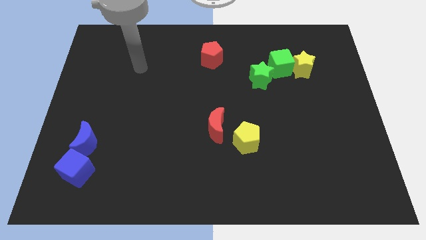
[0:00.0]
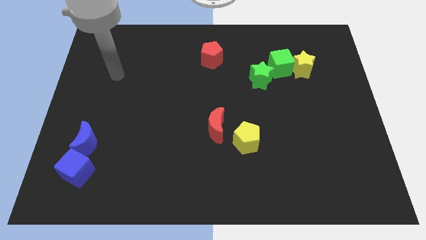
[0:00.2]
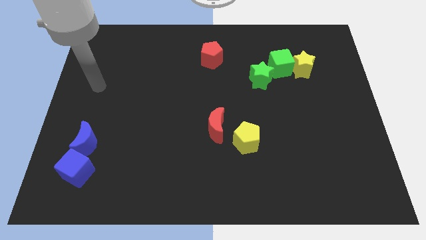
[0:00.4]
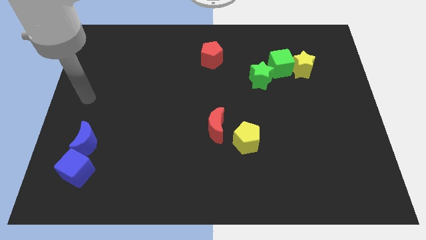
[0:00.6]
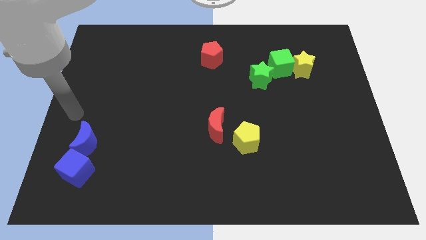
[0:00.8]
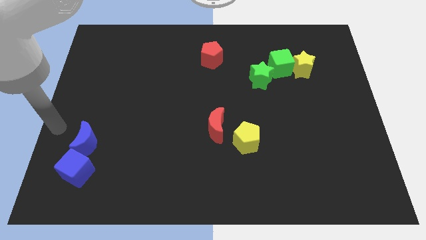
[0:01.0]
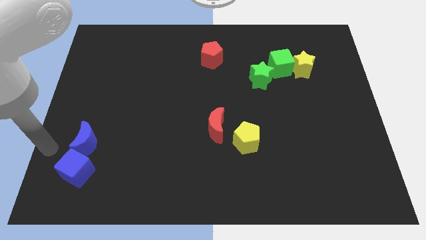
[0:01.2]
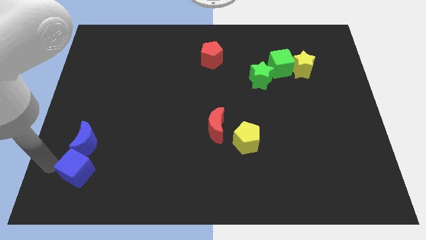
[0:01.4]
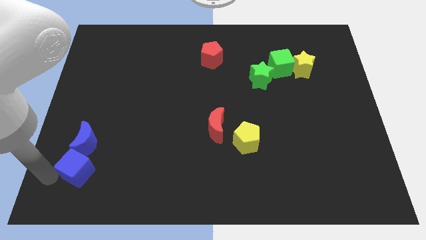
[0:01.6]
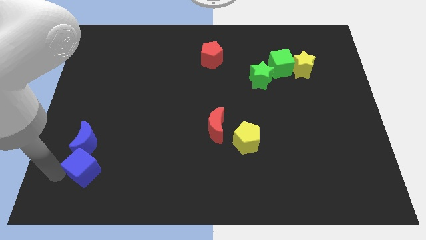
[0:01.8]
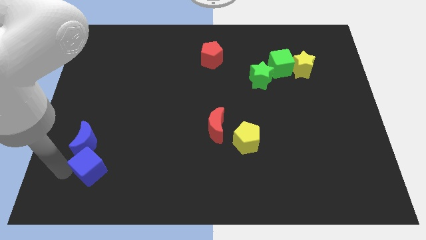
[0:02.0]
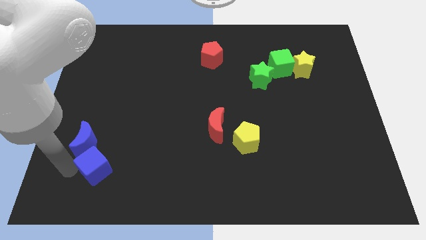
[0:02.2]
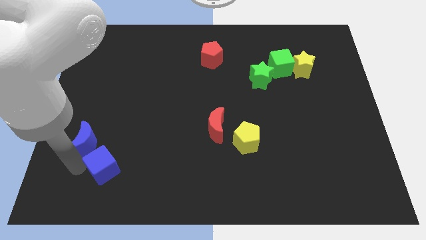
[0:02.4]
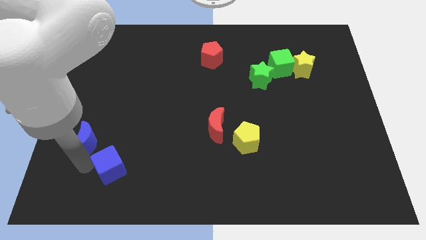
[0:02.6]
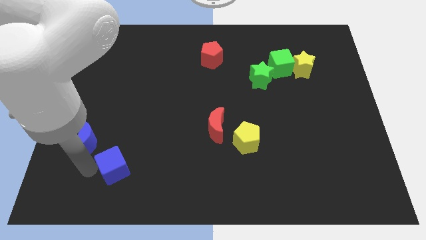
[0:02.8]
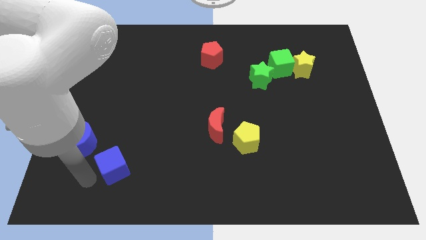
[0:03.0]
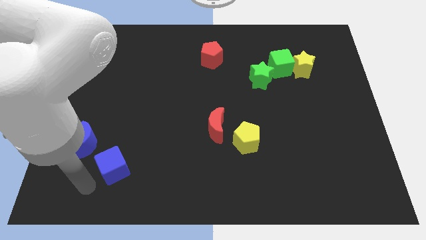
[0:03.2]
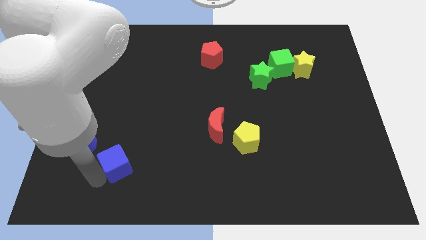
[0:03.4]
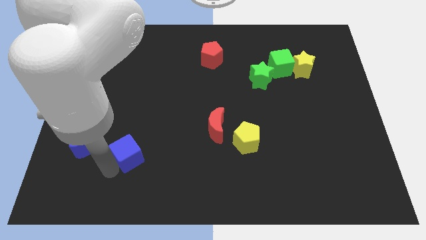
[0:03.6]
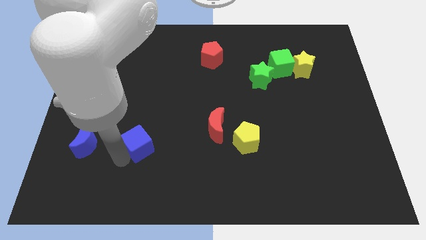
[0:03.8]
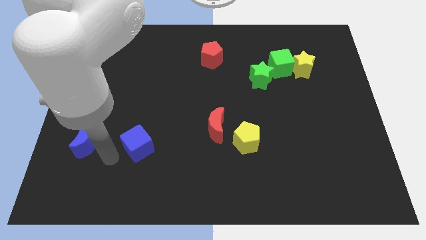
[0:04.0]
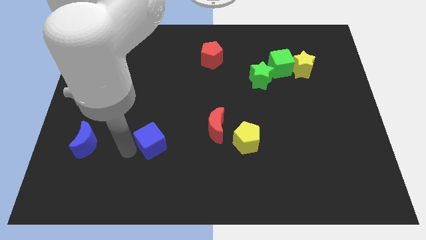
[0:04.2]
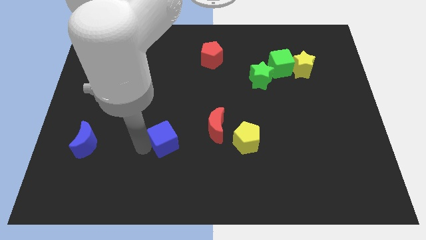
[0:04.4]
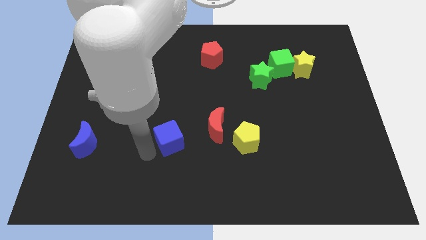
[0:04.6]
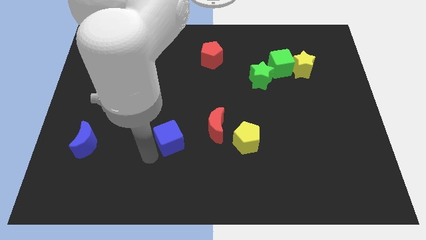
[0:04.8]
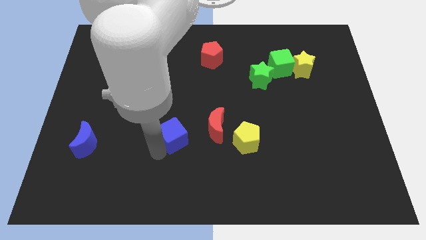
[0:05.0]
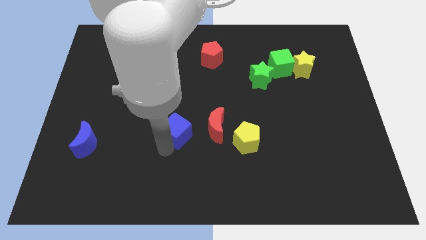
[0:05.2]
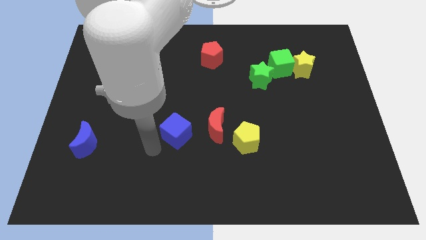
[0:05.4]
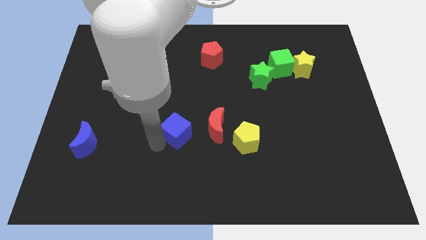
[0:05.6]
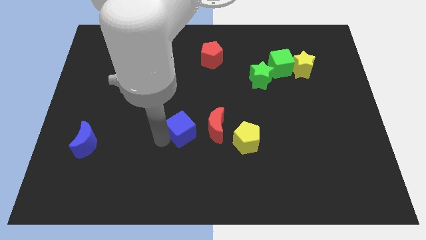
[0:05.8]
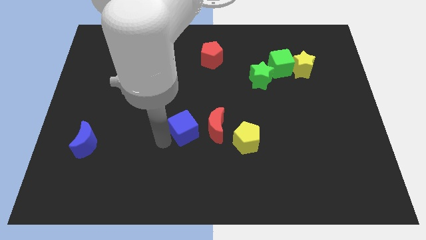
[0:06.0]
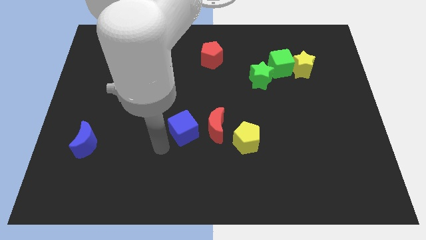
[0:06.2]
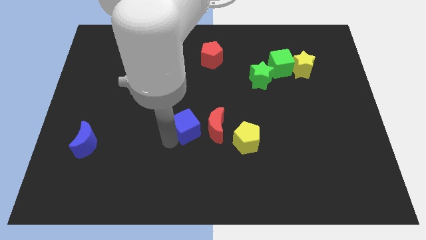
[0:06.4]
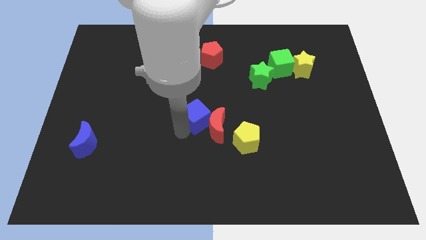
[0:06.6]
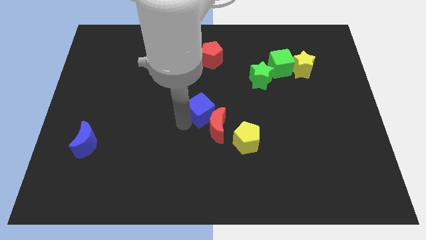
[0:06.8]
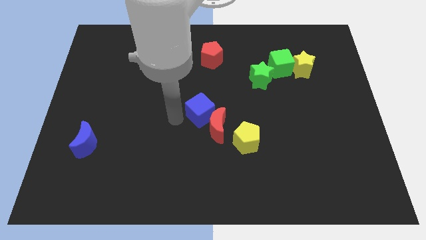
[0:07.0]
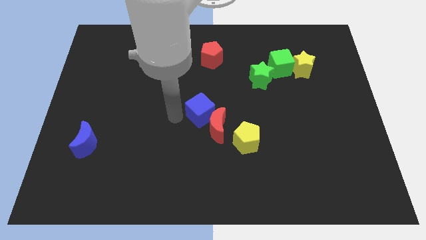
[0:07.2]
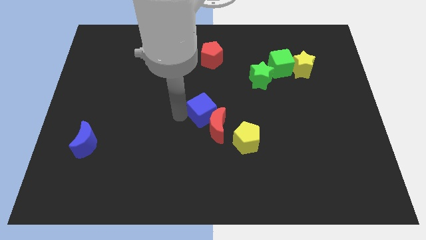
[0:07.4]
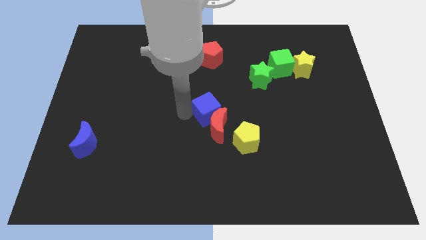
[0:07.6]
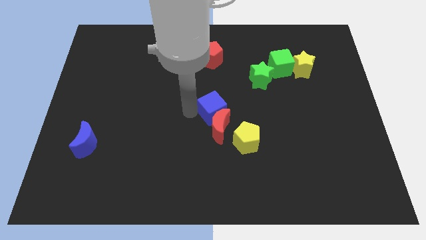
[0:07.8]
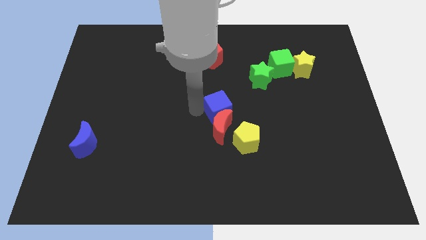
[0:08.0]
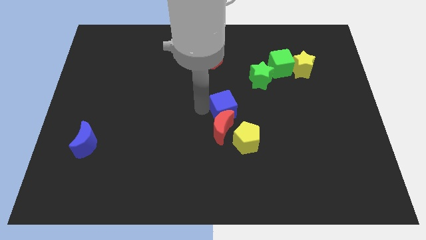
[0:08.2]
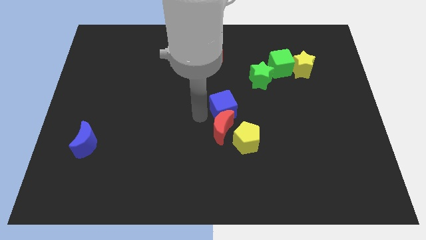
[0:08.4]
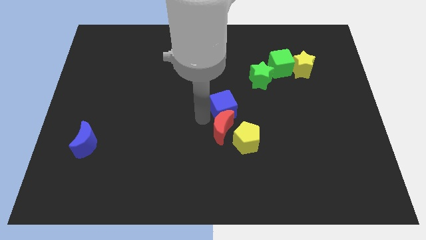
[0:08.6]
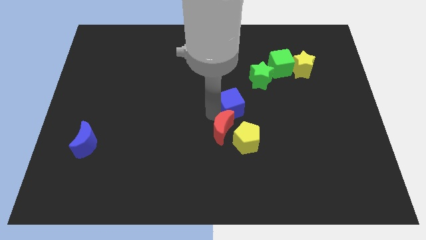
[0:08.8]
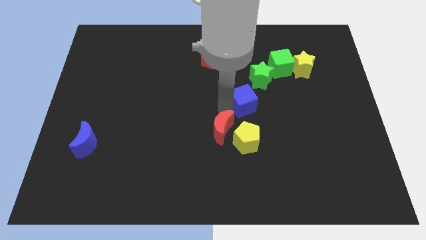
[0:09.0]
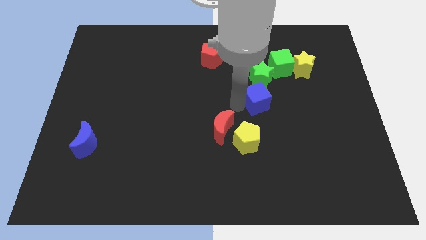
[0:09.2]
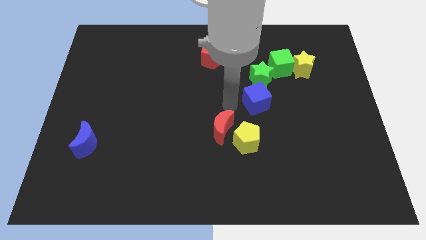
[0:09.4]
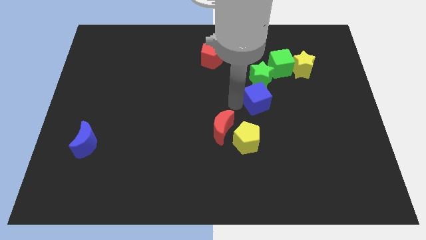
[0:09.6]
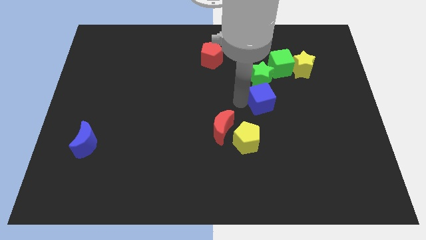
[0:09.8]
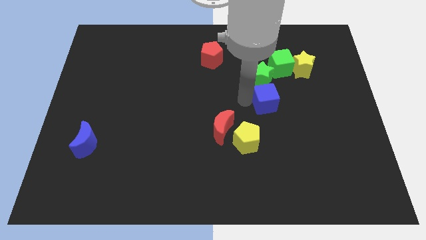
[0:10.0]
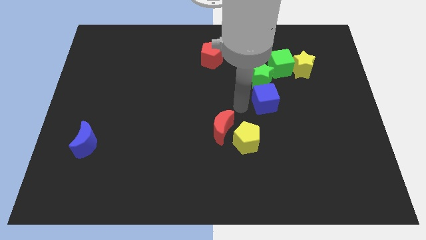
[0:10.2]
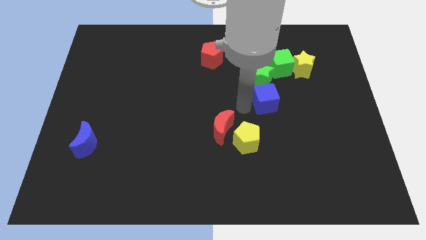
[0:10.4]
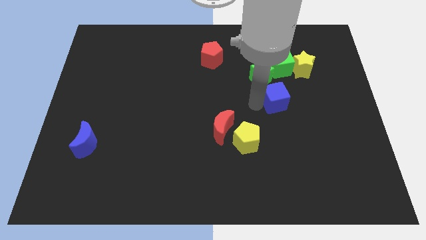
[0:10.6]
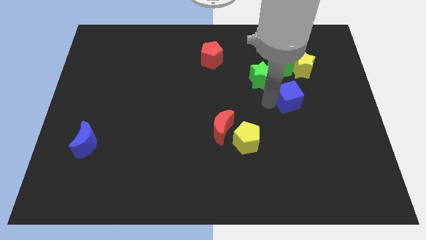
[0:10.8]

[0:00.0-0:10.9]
move the blue cube to the bottom of the yellow star

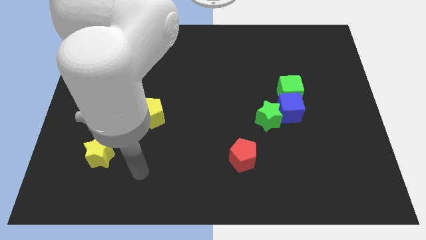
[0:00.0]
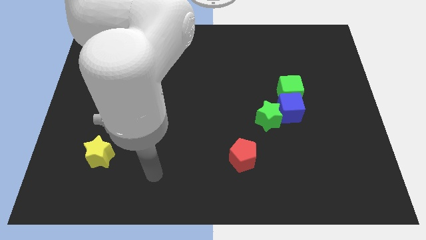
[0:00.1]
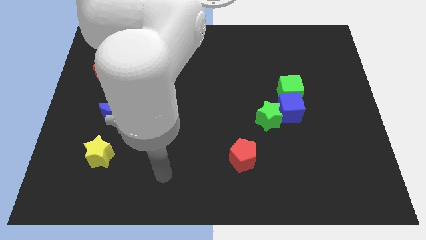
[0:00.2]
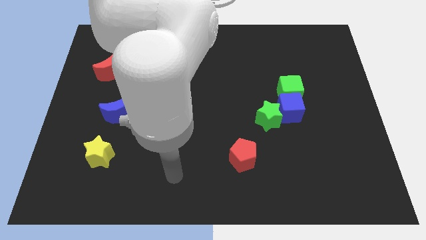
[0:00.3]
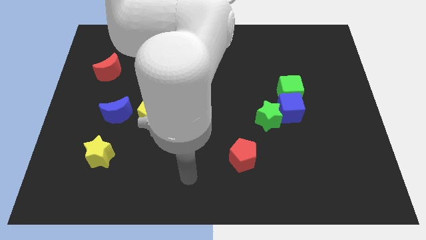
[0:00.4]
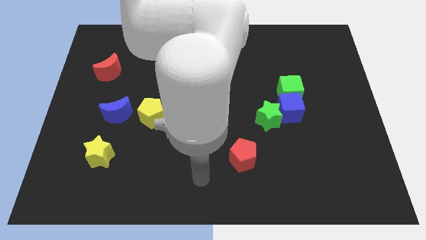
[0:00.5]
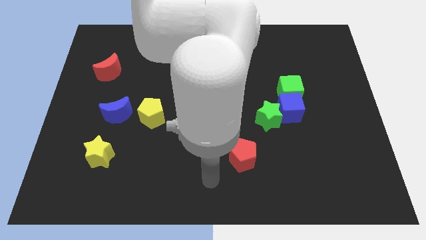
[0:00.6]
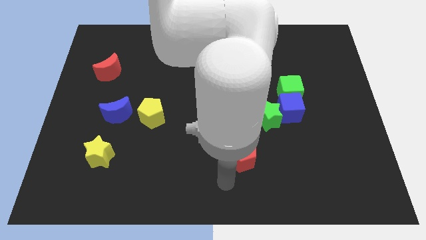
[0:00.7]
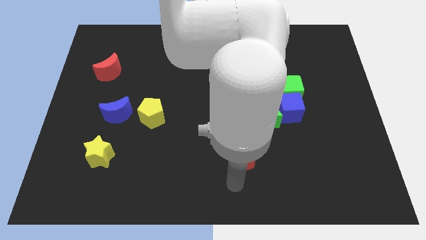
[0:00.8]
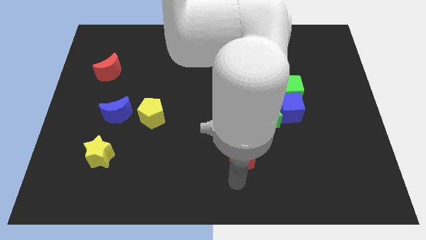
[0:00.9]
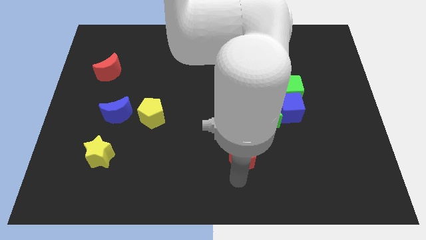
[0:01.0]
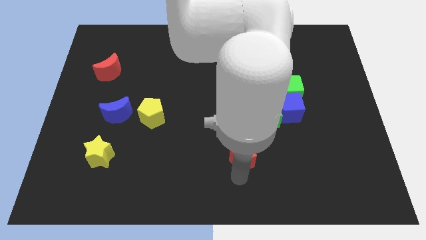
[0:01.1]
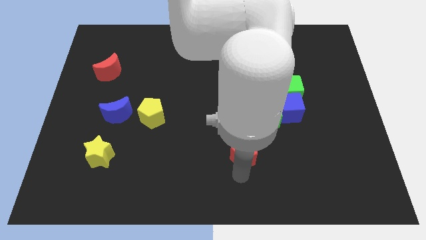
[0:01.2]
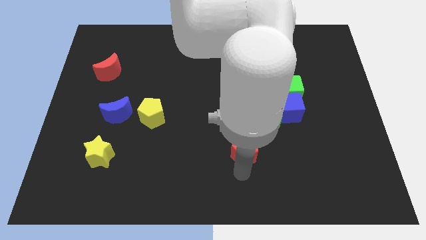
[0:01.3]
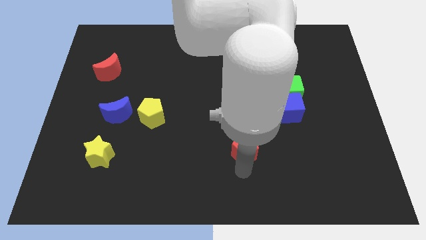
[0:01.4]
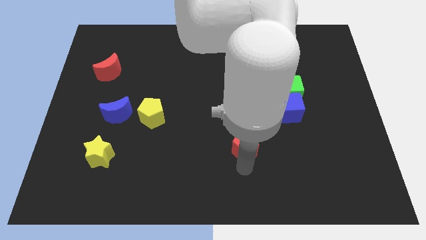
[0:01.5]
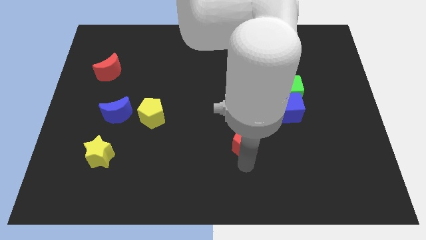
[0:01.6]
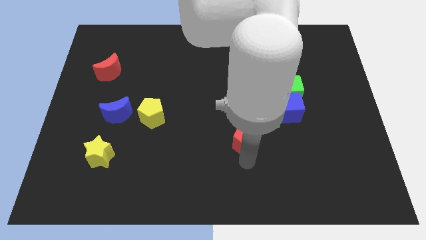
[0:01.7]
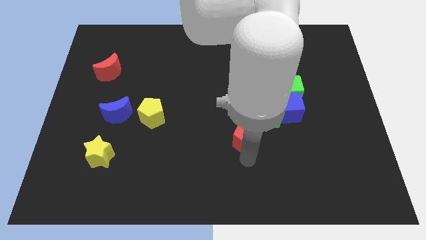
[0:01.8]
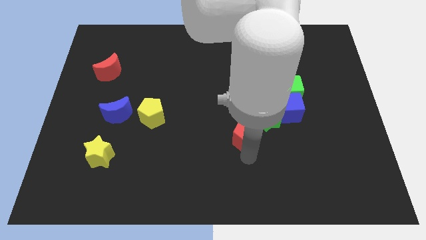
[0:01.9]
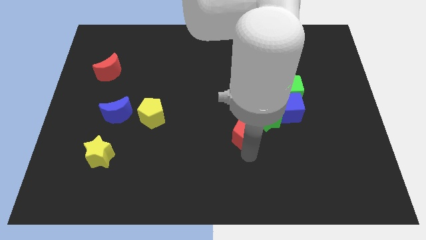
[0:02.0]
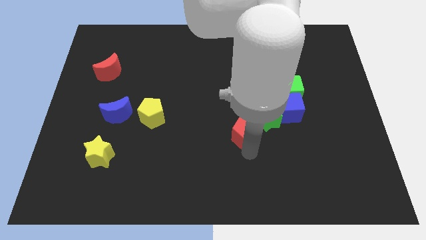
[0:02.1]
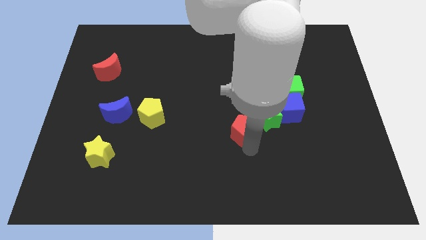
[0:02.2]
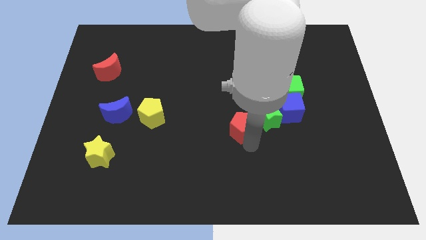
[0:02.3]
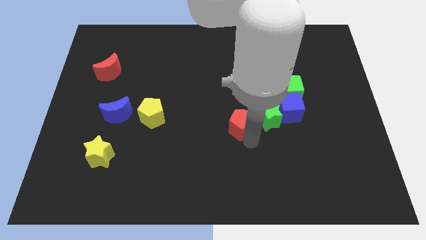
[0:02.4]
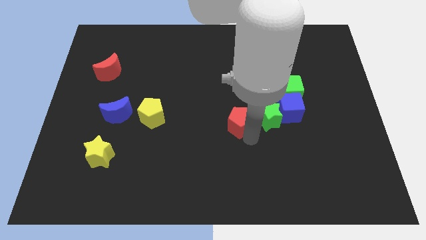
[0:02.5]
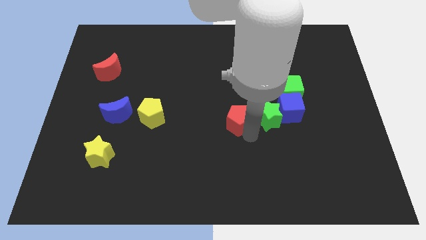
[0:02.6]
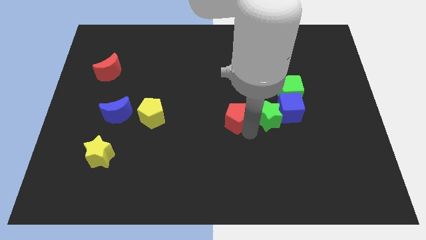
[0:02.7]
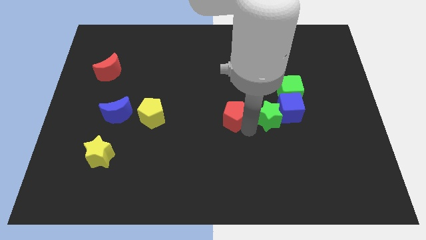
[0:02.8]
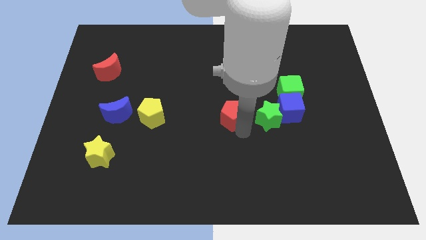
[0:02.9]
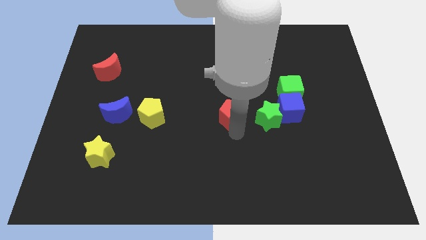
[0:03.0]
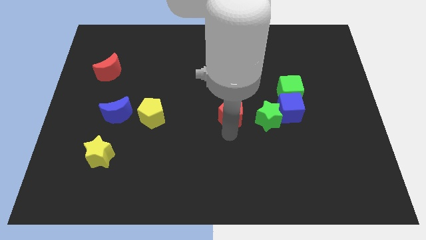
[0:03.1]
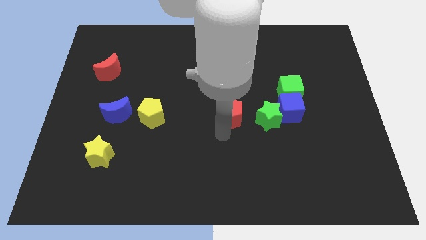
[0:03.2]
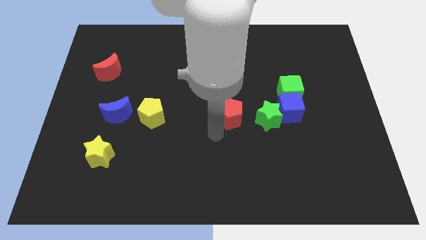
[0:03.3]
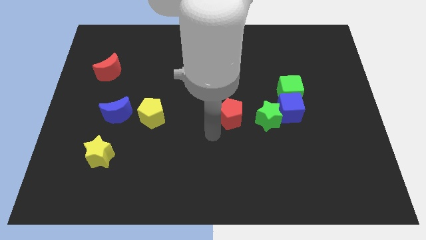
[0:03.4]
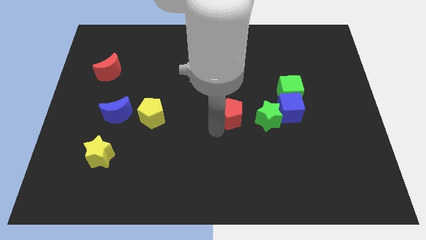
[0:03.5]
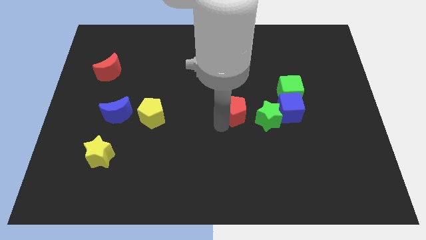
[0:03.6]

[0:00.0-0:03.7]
push the red pentagon diagonally up and to the left of the green star
